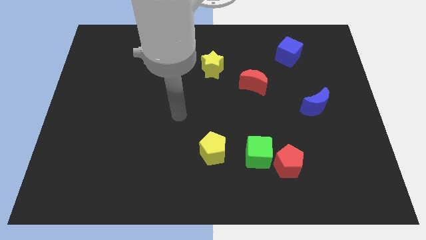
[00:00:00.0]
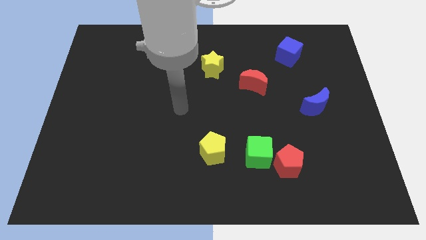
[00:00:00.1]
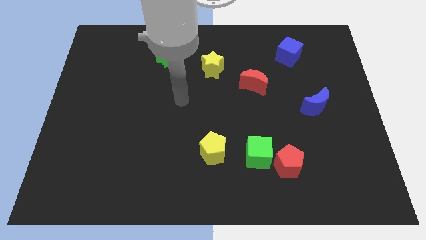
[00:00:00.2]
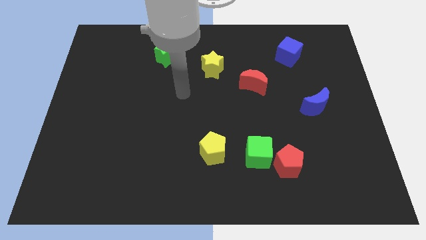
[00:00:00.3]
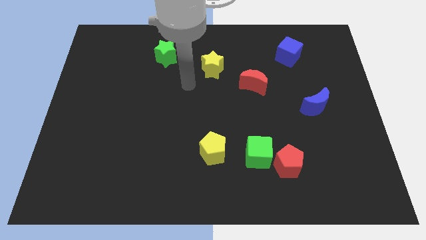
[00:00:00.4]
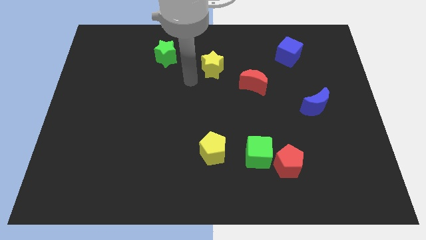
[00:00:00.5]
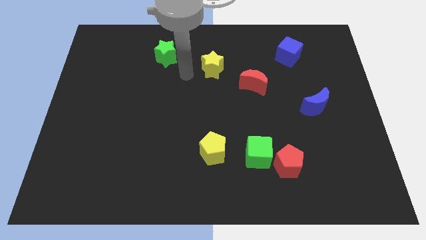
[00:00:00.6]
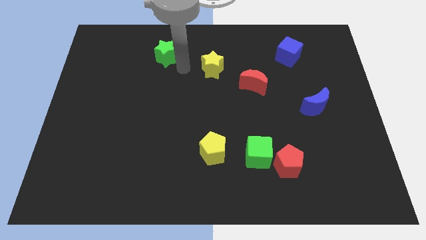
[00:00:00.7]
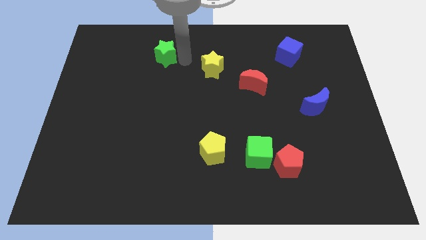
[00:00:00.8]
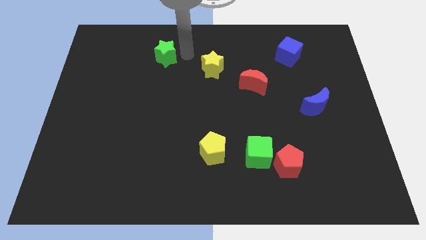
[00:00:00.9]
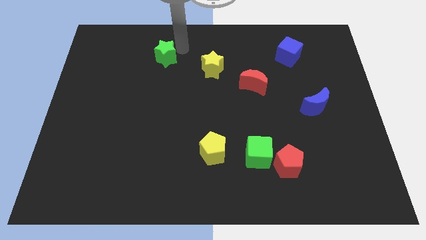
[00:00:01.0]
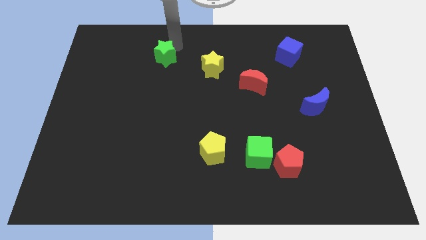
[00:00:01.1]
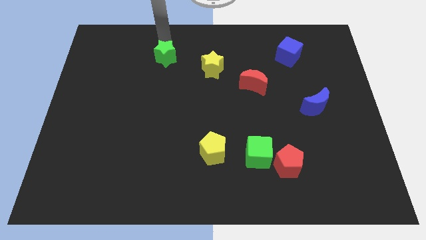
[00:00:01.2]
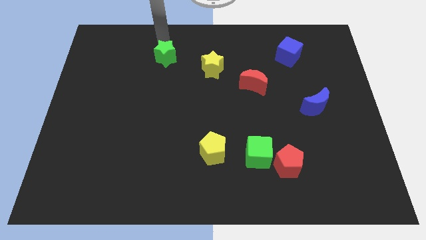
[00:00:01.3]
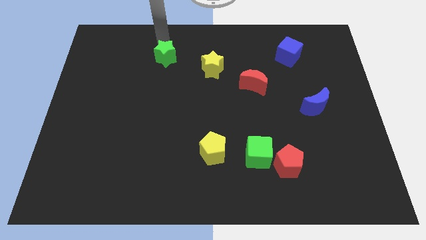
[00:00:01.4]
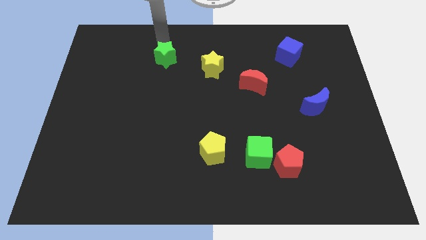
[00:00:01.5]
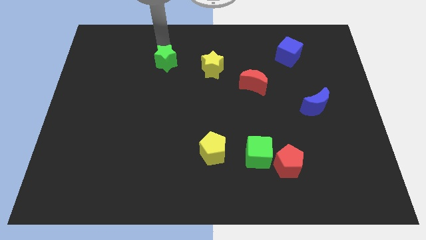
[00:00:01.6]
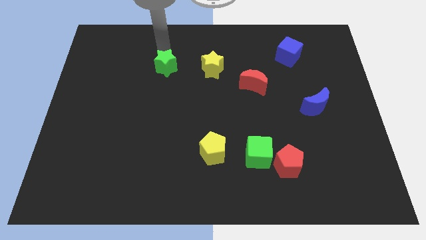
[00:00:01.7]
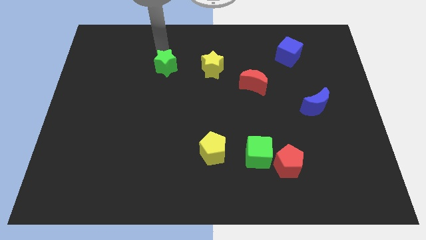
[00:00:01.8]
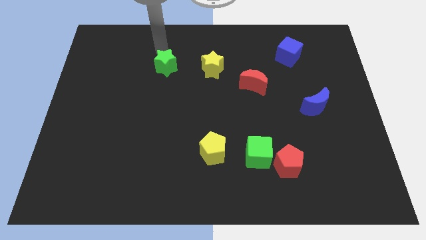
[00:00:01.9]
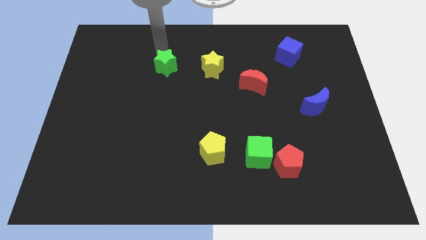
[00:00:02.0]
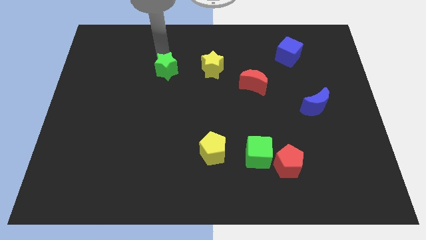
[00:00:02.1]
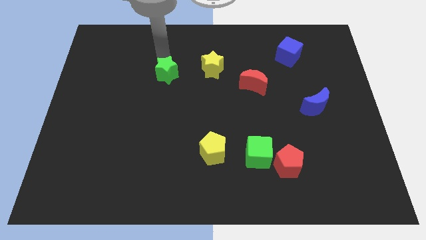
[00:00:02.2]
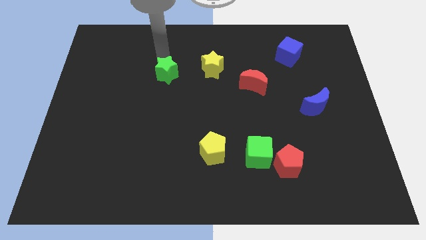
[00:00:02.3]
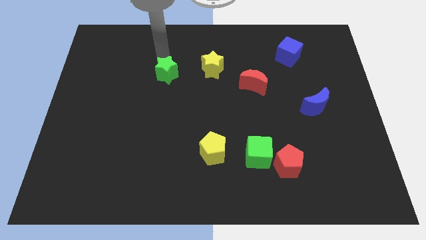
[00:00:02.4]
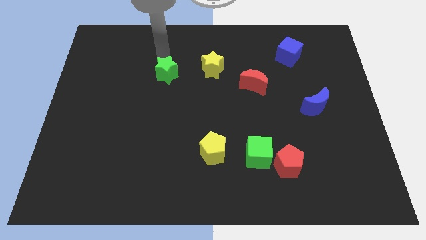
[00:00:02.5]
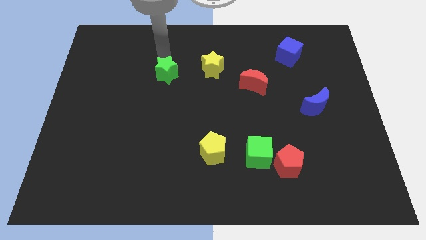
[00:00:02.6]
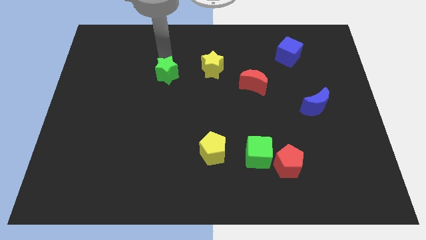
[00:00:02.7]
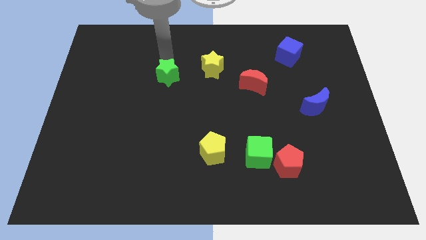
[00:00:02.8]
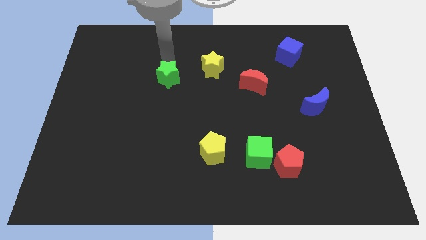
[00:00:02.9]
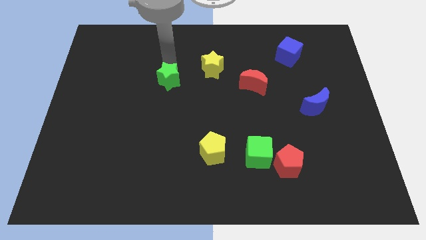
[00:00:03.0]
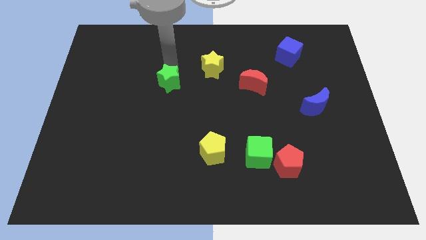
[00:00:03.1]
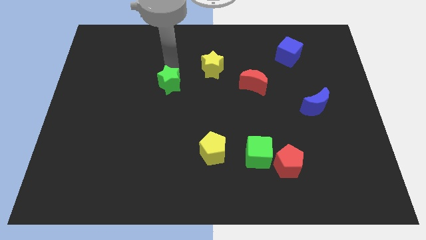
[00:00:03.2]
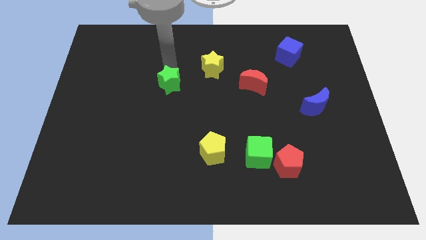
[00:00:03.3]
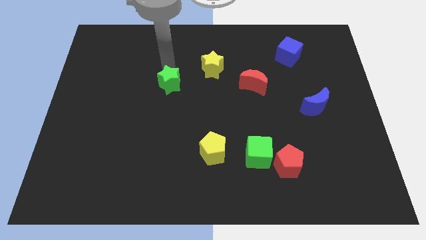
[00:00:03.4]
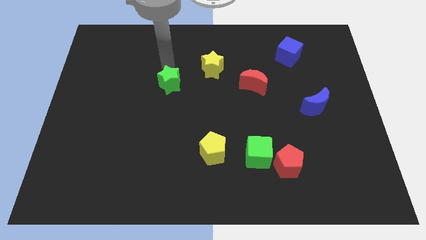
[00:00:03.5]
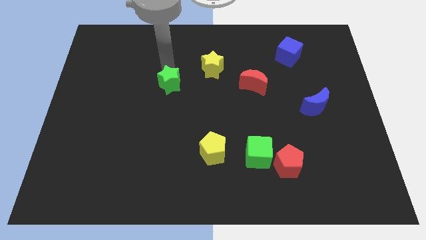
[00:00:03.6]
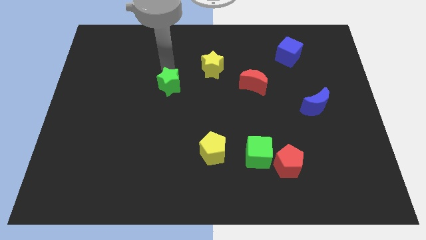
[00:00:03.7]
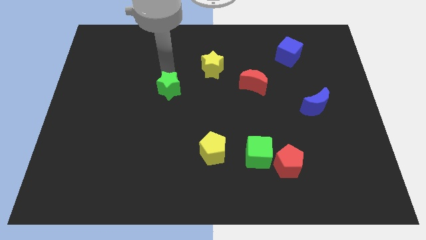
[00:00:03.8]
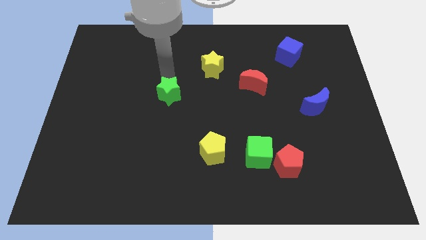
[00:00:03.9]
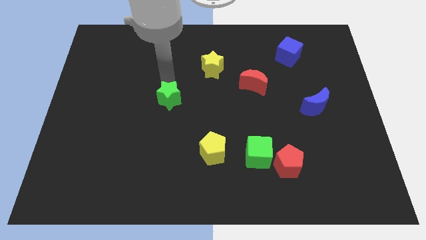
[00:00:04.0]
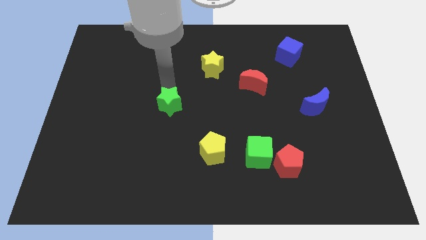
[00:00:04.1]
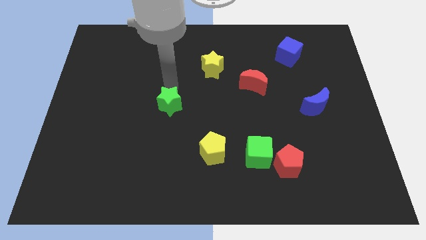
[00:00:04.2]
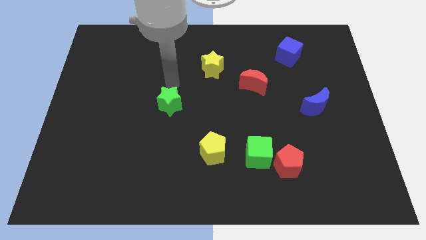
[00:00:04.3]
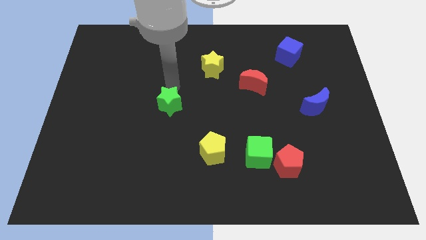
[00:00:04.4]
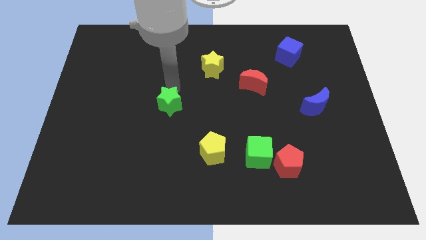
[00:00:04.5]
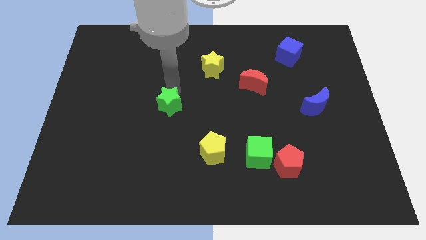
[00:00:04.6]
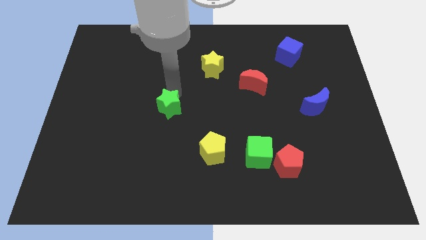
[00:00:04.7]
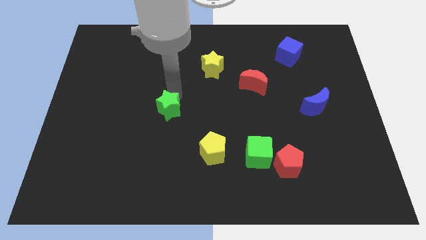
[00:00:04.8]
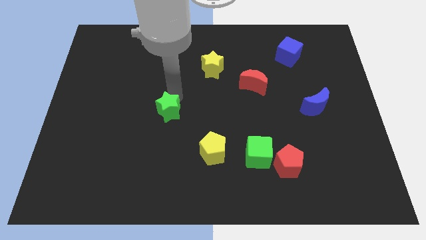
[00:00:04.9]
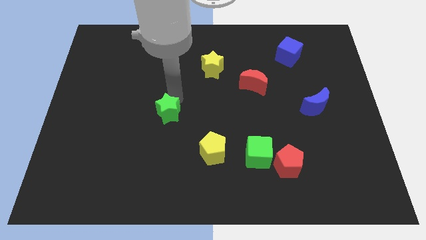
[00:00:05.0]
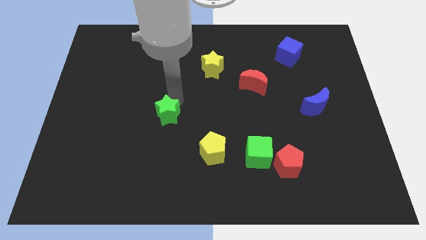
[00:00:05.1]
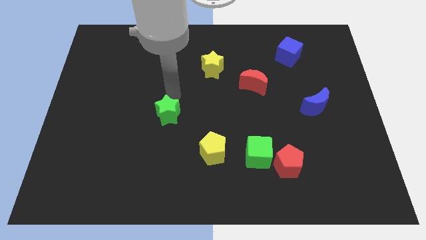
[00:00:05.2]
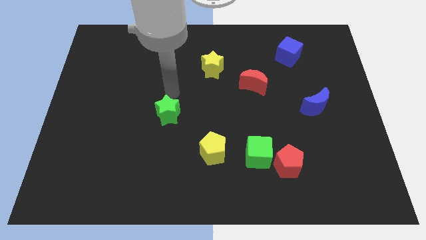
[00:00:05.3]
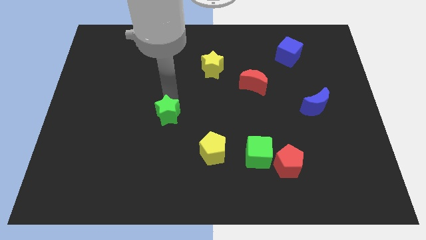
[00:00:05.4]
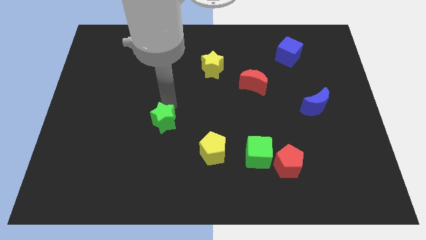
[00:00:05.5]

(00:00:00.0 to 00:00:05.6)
slide the green star downwards

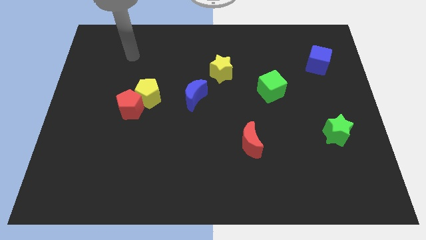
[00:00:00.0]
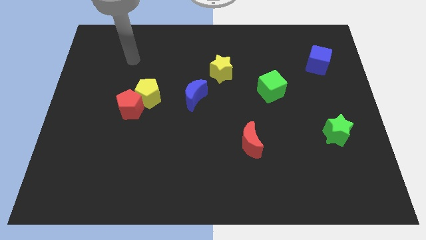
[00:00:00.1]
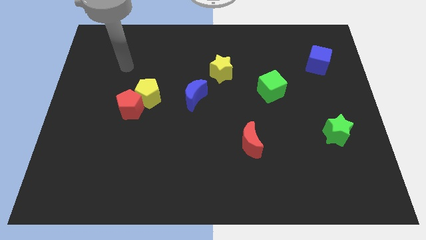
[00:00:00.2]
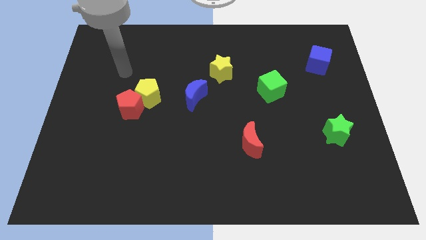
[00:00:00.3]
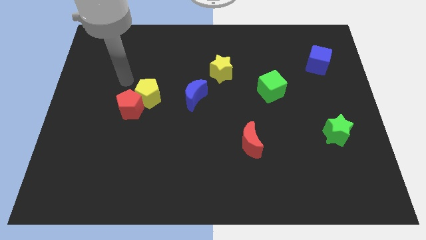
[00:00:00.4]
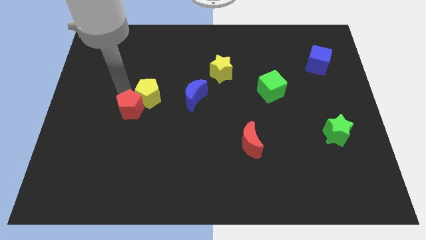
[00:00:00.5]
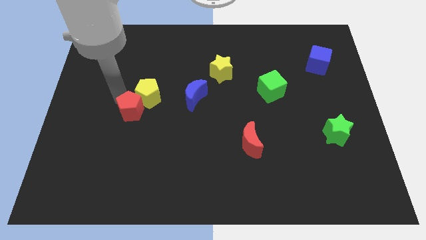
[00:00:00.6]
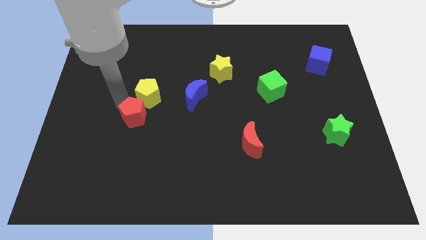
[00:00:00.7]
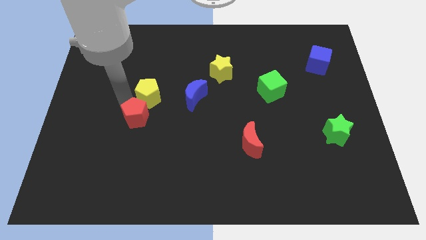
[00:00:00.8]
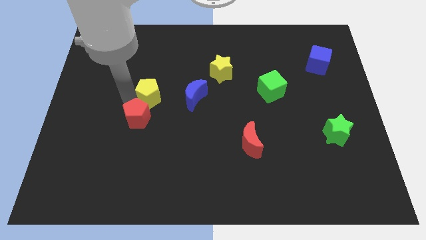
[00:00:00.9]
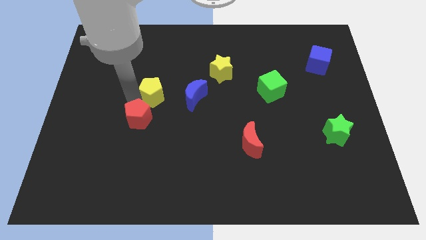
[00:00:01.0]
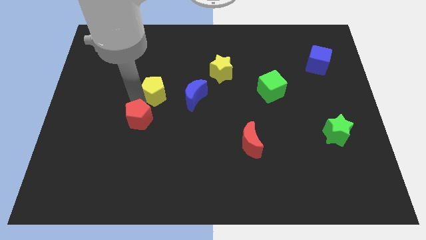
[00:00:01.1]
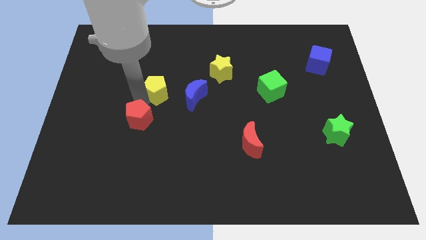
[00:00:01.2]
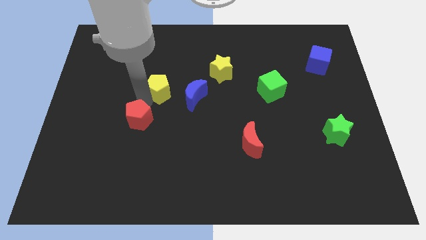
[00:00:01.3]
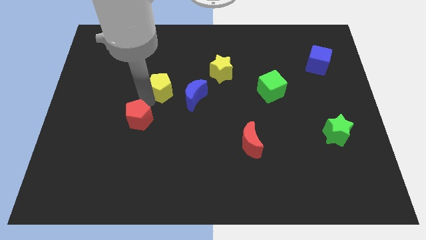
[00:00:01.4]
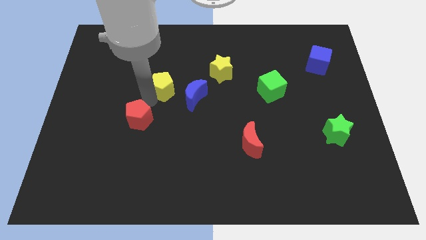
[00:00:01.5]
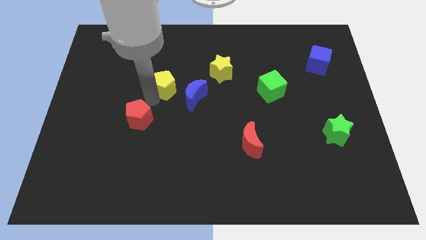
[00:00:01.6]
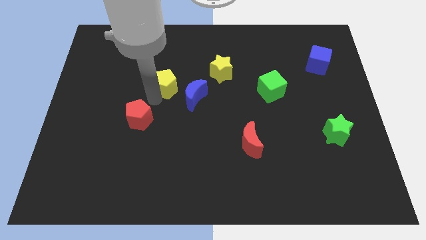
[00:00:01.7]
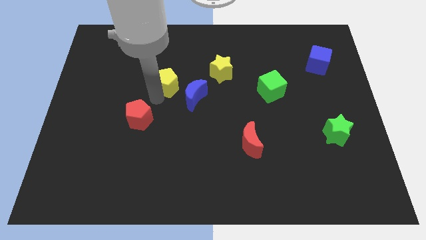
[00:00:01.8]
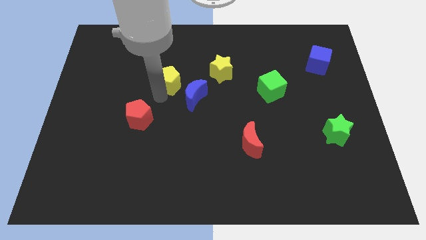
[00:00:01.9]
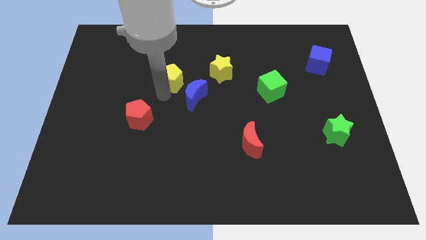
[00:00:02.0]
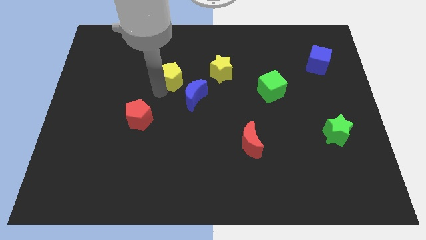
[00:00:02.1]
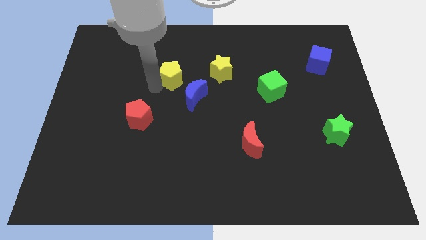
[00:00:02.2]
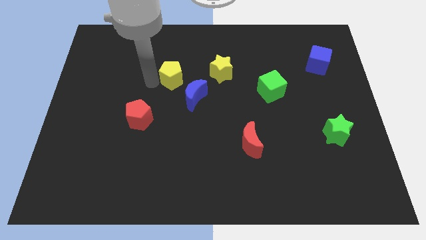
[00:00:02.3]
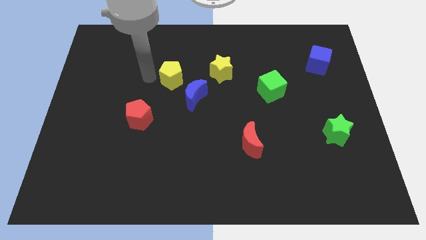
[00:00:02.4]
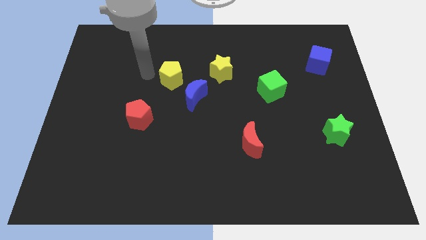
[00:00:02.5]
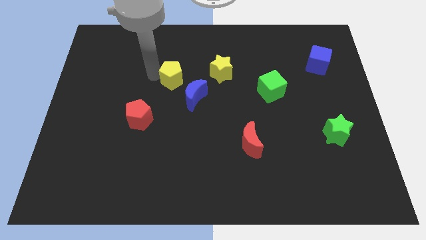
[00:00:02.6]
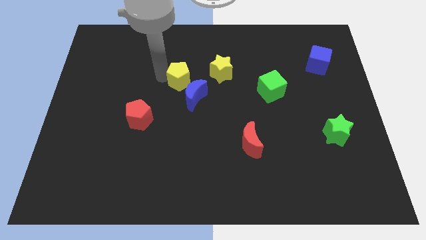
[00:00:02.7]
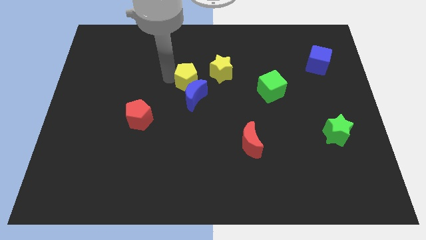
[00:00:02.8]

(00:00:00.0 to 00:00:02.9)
slide the yellow pentagon a bit right
